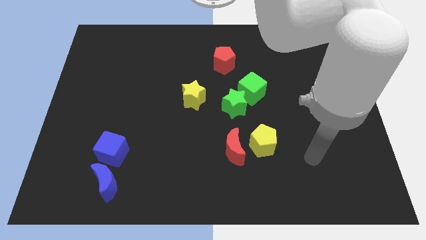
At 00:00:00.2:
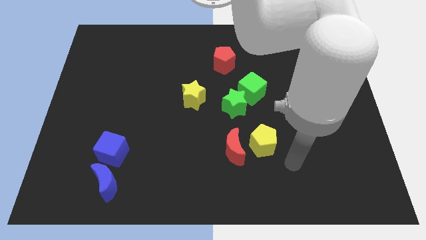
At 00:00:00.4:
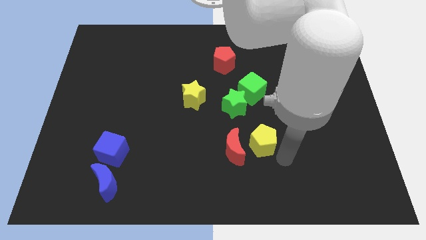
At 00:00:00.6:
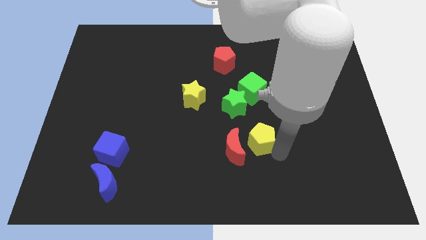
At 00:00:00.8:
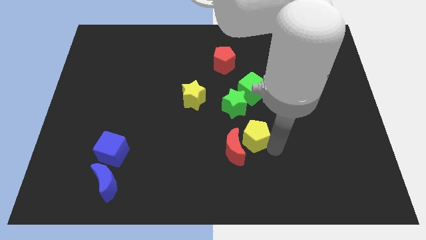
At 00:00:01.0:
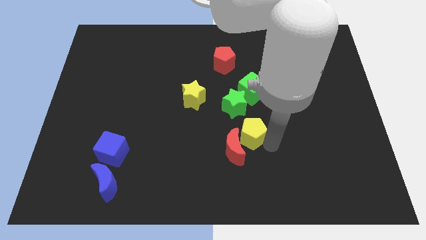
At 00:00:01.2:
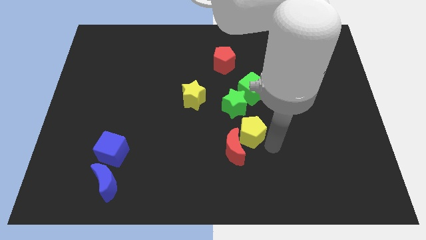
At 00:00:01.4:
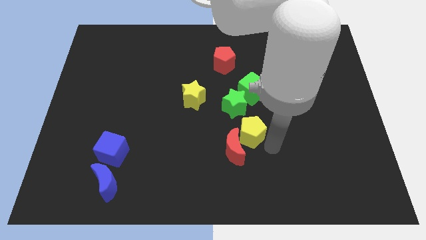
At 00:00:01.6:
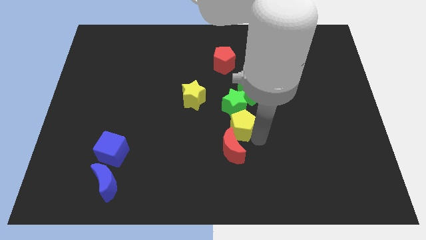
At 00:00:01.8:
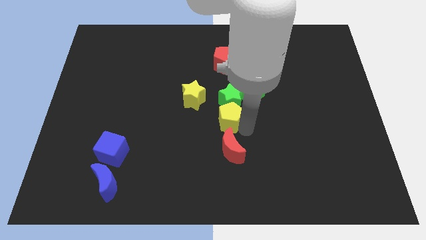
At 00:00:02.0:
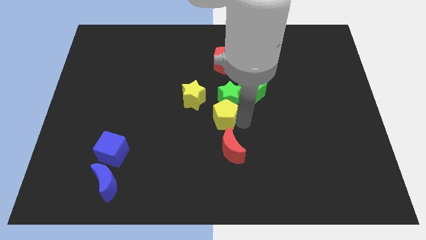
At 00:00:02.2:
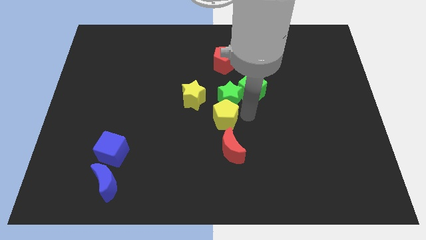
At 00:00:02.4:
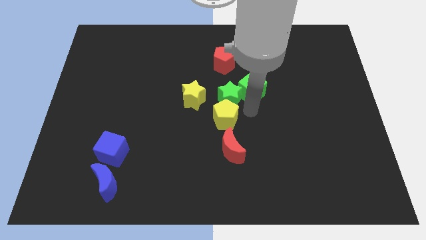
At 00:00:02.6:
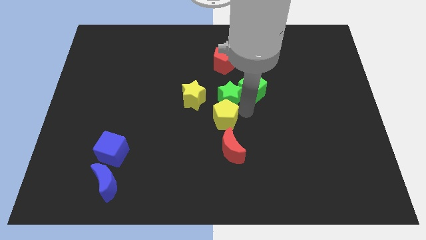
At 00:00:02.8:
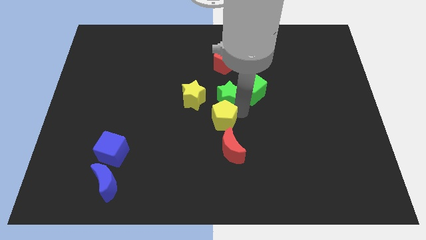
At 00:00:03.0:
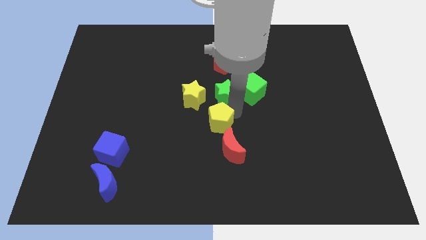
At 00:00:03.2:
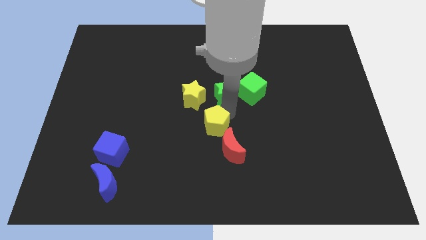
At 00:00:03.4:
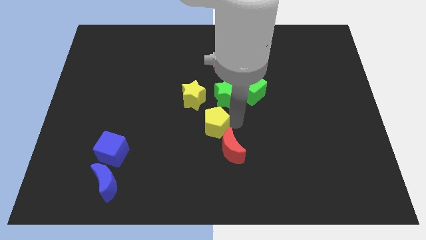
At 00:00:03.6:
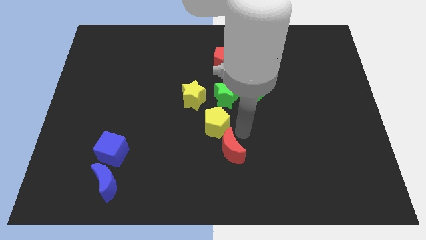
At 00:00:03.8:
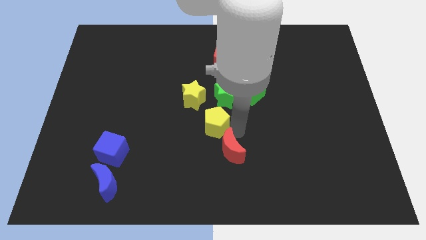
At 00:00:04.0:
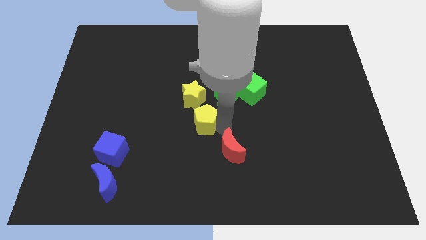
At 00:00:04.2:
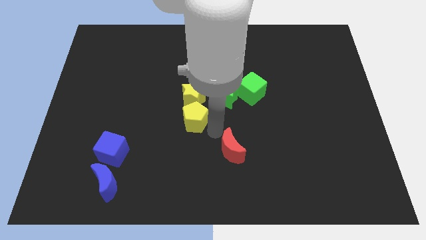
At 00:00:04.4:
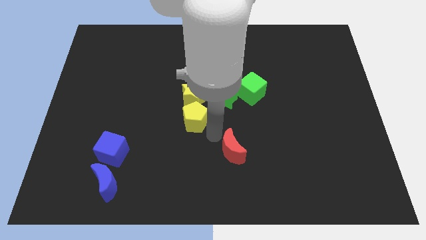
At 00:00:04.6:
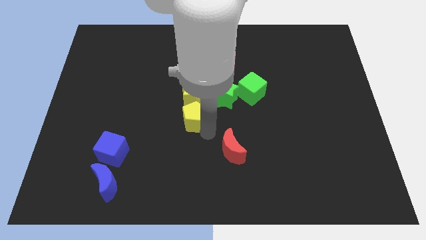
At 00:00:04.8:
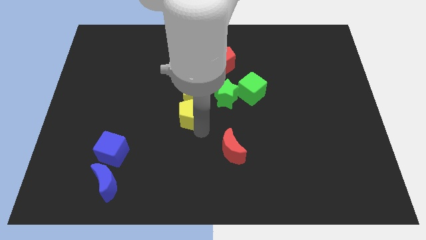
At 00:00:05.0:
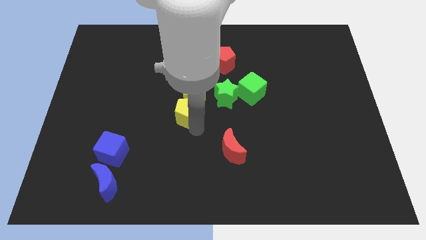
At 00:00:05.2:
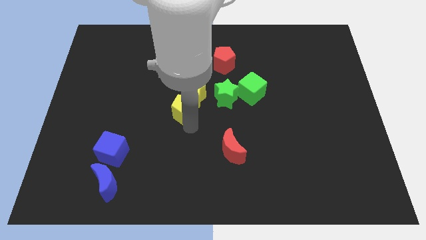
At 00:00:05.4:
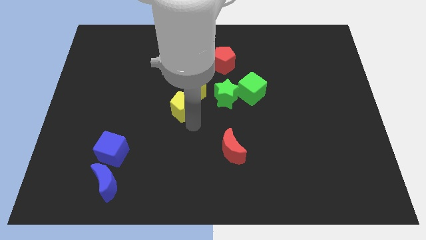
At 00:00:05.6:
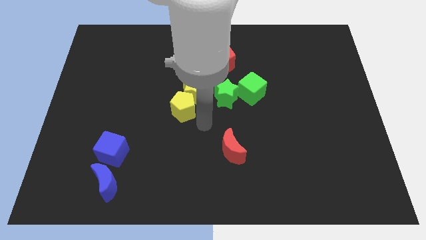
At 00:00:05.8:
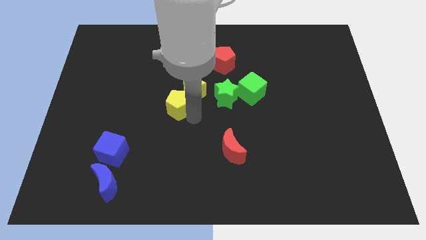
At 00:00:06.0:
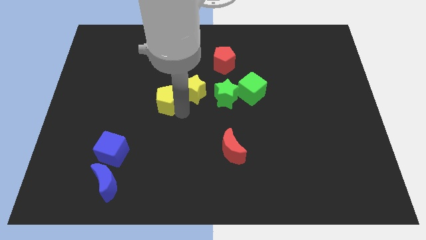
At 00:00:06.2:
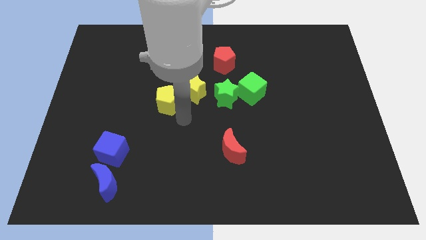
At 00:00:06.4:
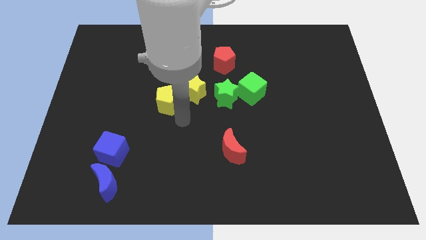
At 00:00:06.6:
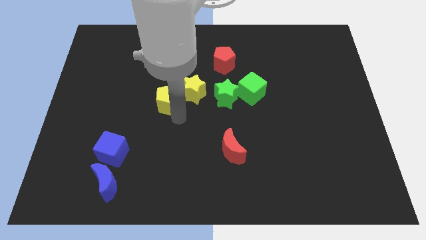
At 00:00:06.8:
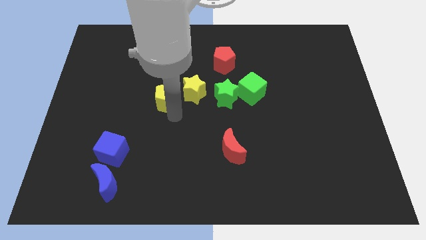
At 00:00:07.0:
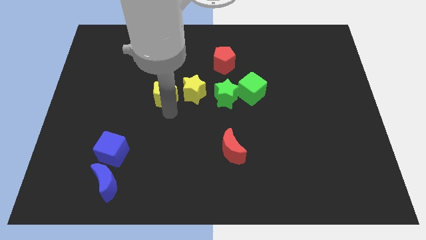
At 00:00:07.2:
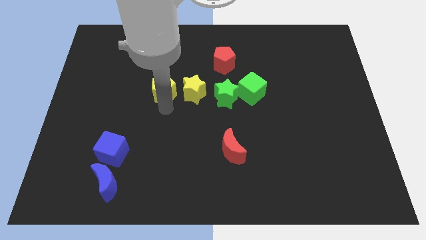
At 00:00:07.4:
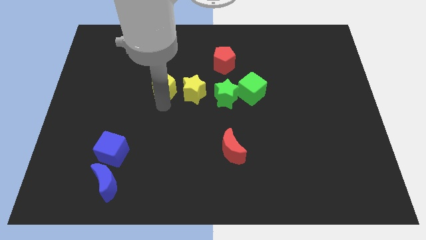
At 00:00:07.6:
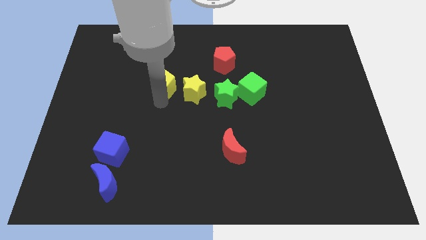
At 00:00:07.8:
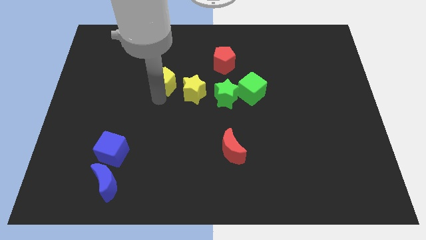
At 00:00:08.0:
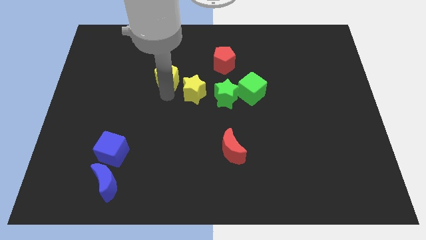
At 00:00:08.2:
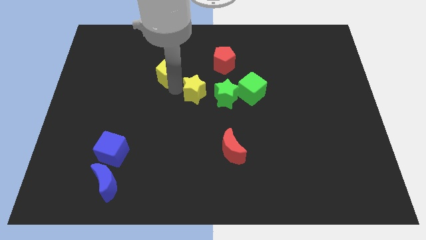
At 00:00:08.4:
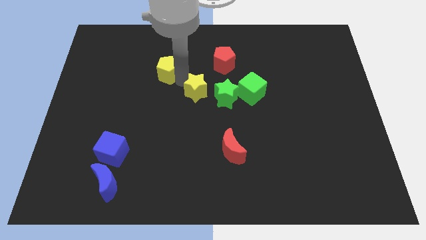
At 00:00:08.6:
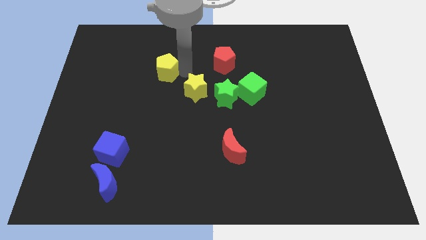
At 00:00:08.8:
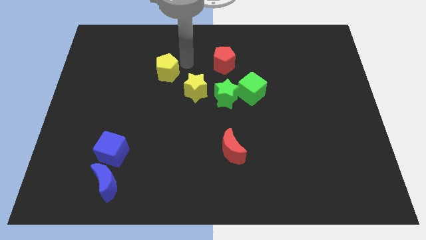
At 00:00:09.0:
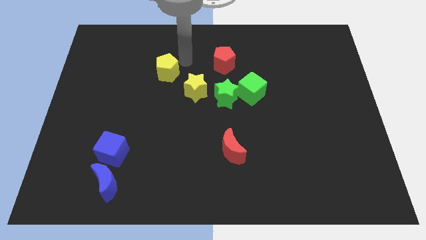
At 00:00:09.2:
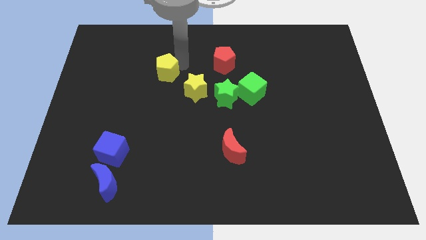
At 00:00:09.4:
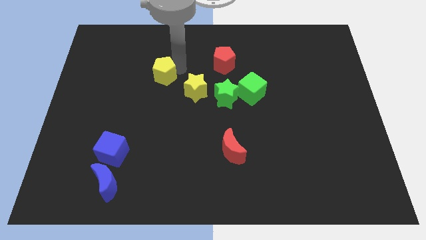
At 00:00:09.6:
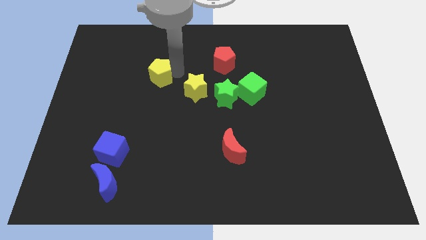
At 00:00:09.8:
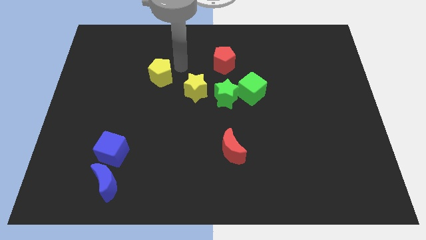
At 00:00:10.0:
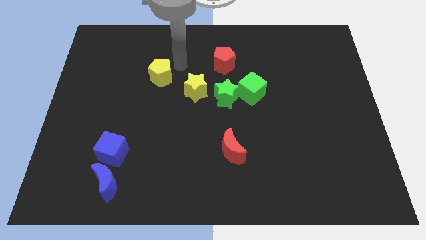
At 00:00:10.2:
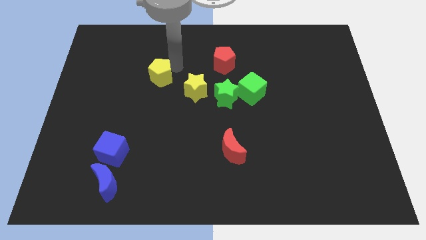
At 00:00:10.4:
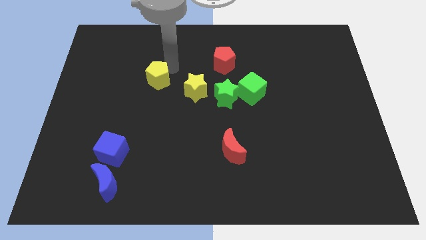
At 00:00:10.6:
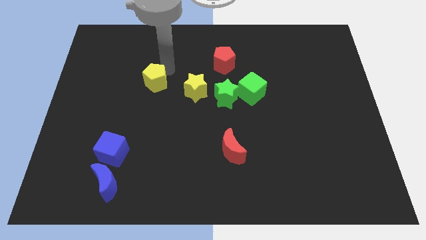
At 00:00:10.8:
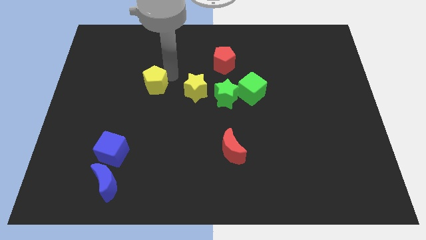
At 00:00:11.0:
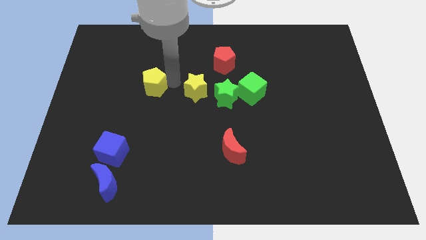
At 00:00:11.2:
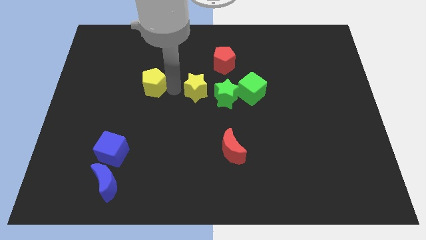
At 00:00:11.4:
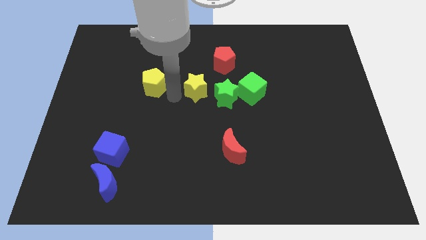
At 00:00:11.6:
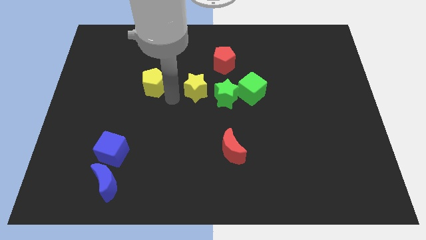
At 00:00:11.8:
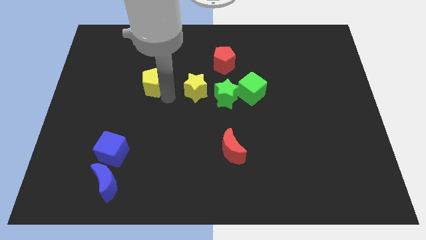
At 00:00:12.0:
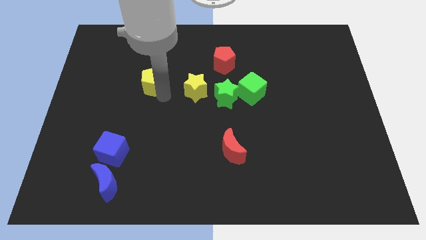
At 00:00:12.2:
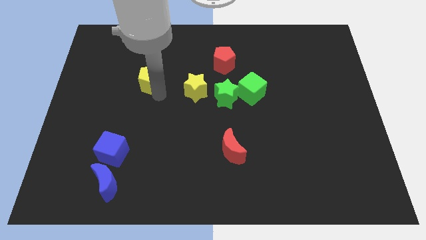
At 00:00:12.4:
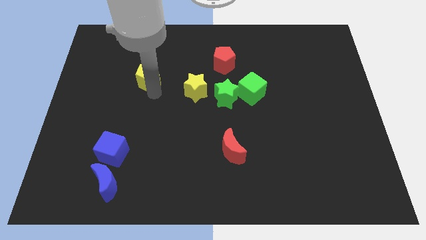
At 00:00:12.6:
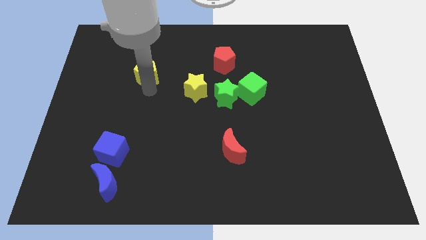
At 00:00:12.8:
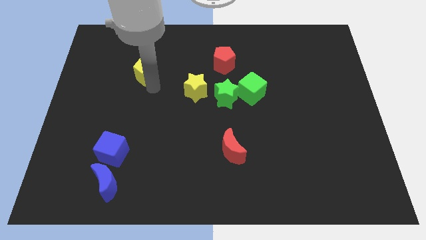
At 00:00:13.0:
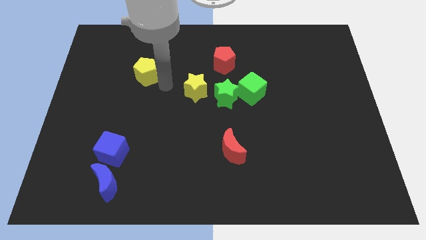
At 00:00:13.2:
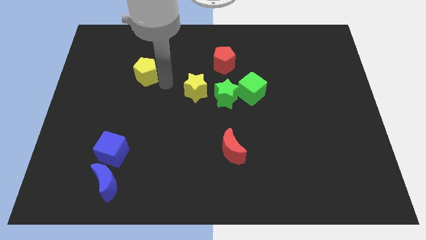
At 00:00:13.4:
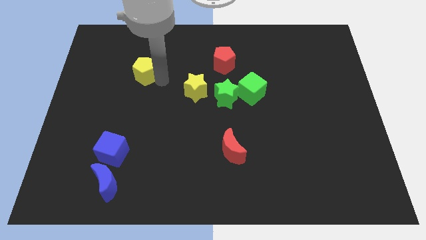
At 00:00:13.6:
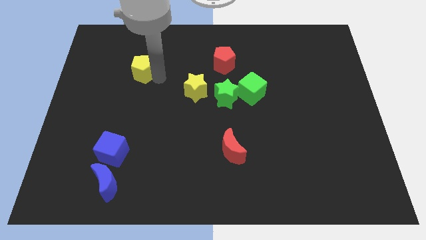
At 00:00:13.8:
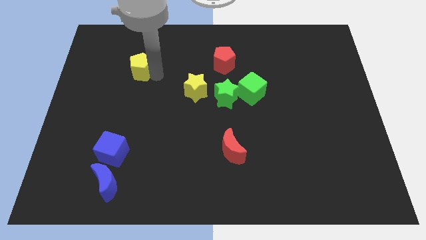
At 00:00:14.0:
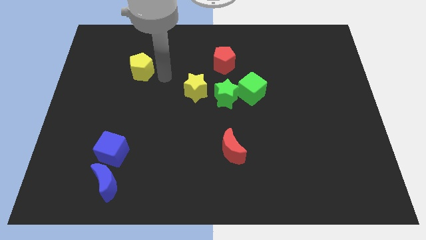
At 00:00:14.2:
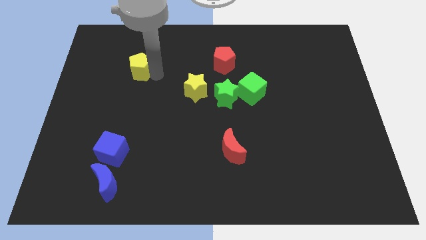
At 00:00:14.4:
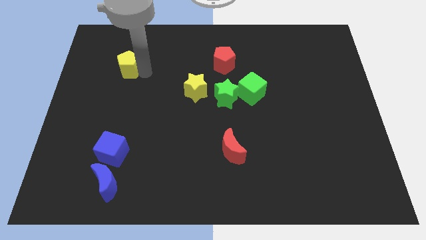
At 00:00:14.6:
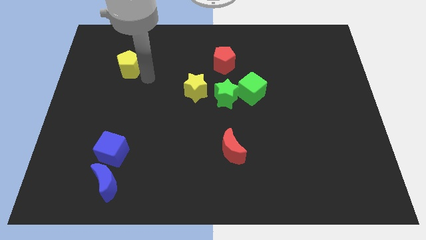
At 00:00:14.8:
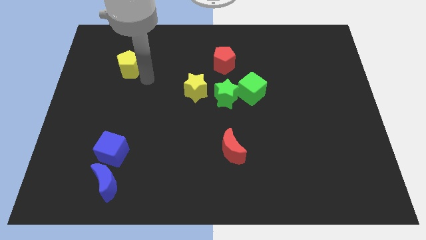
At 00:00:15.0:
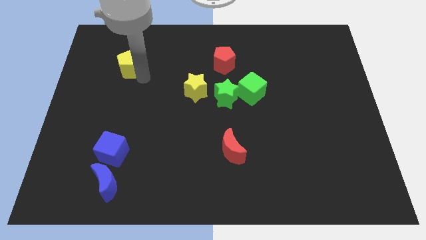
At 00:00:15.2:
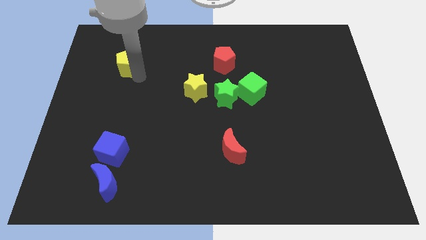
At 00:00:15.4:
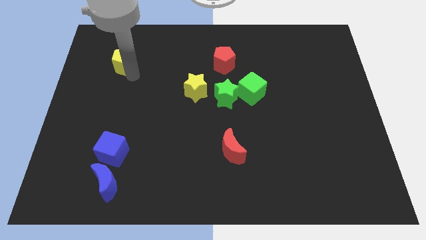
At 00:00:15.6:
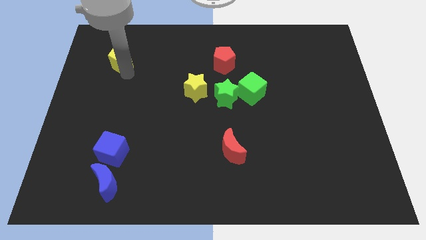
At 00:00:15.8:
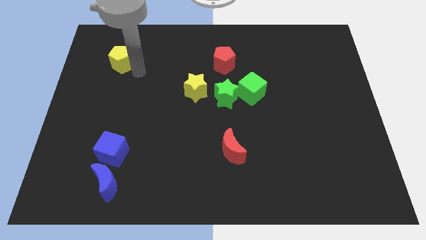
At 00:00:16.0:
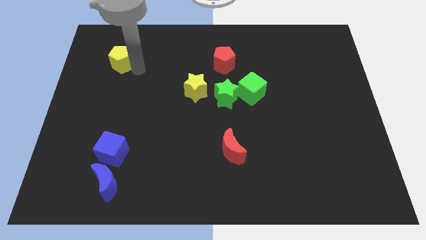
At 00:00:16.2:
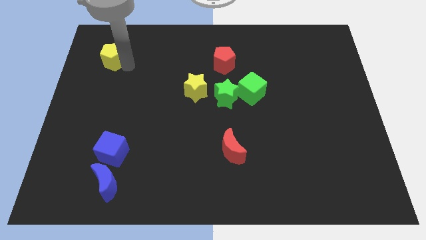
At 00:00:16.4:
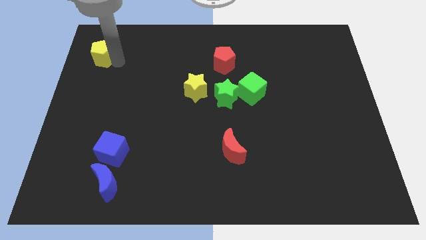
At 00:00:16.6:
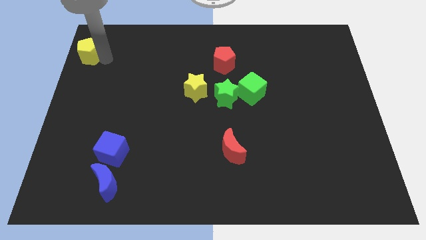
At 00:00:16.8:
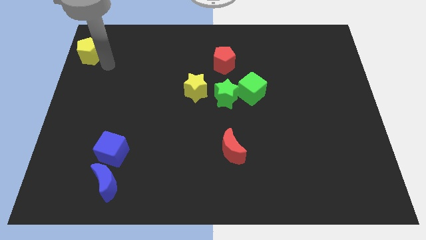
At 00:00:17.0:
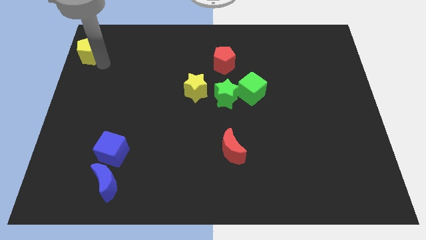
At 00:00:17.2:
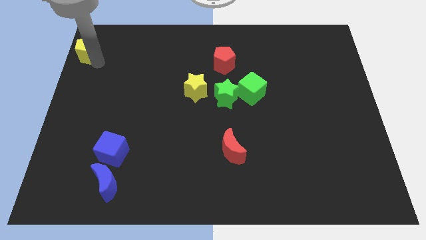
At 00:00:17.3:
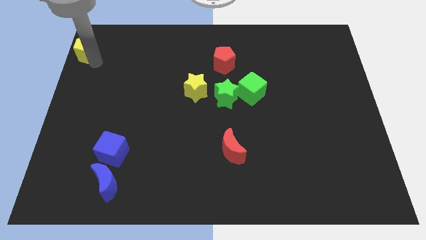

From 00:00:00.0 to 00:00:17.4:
push the yellow pentagon to the top left
